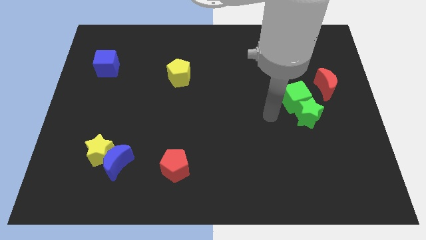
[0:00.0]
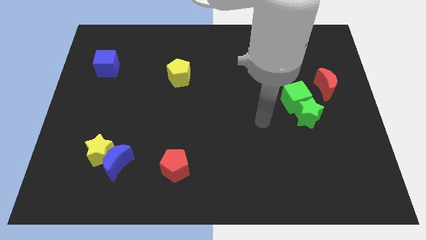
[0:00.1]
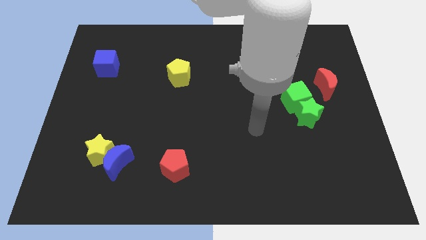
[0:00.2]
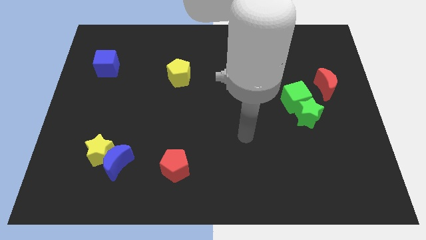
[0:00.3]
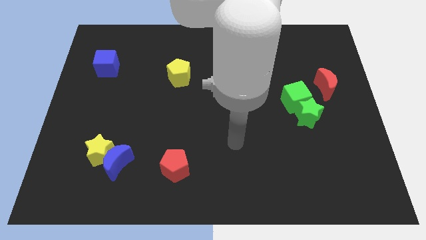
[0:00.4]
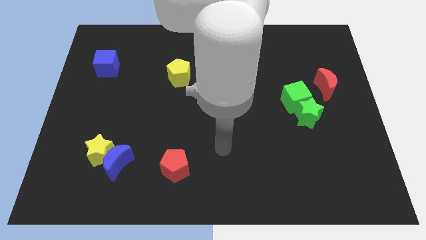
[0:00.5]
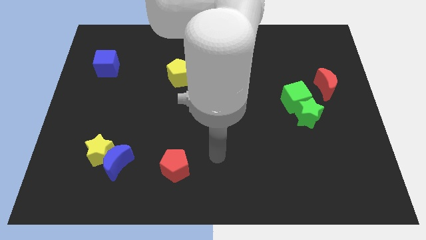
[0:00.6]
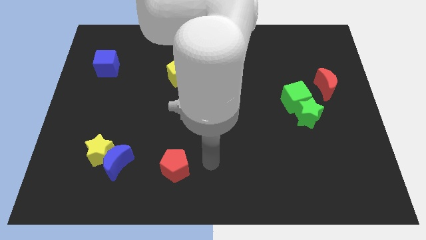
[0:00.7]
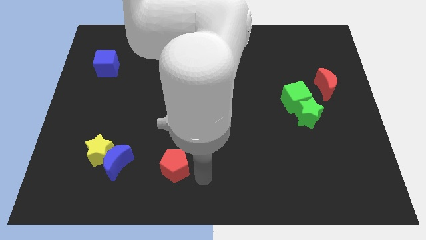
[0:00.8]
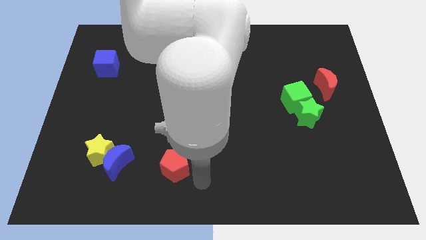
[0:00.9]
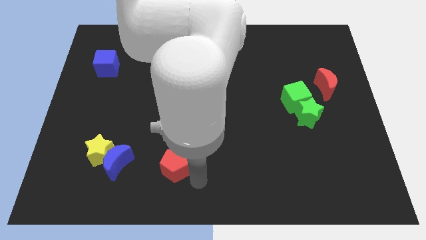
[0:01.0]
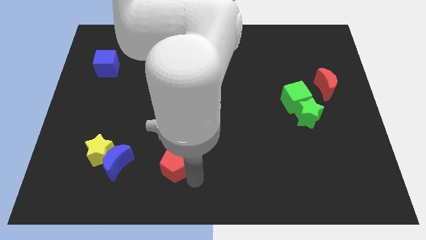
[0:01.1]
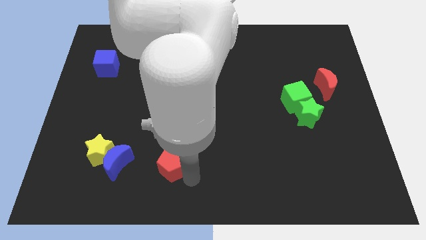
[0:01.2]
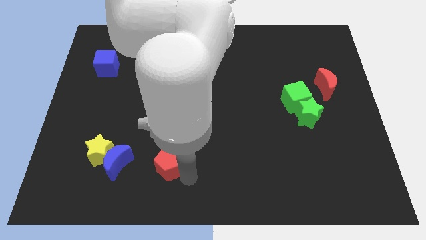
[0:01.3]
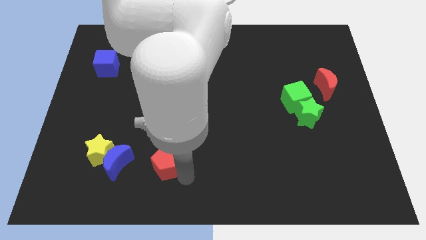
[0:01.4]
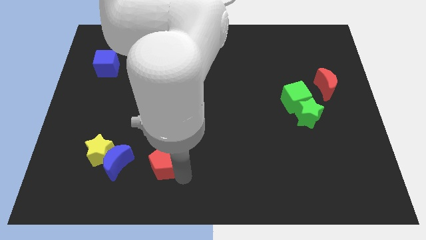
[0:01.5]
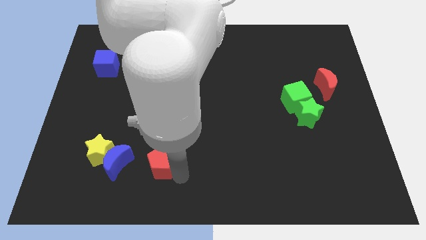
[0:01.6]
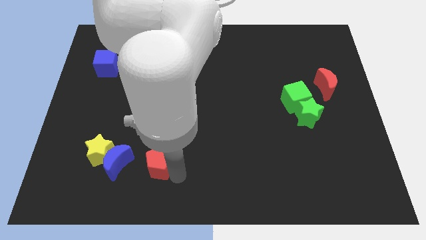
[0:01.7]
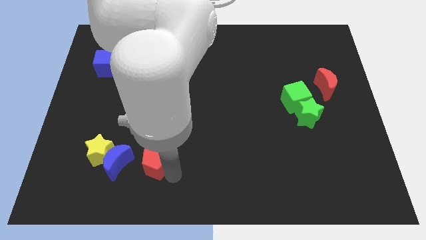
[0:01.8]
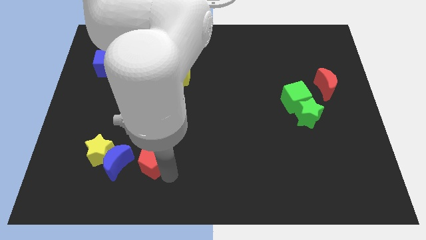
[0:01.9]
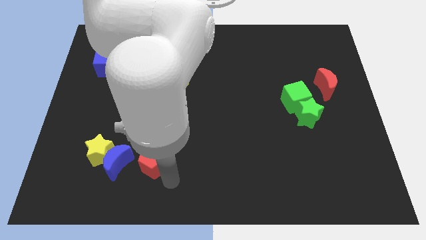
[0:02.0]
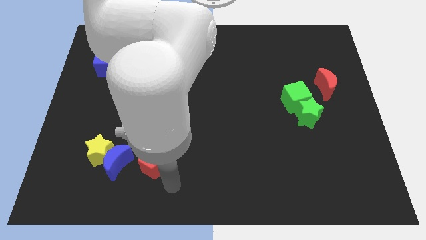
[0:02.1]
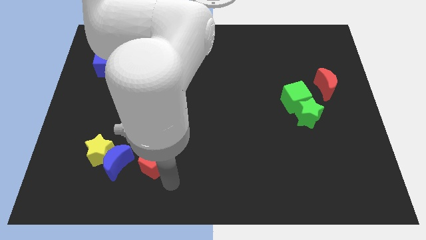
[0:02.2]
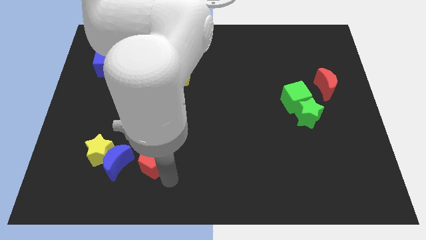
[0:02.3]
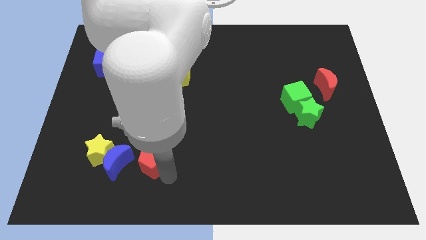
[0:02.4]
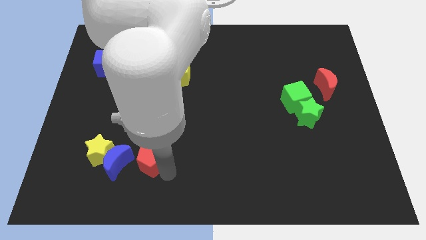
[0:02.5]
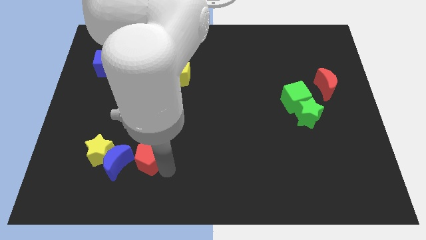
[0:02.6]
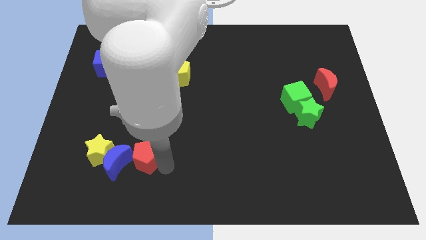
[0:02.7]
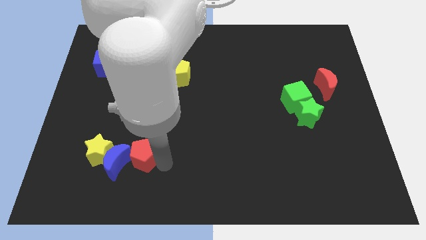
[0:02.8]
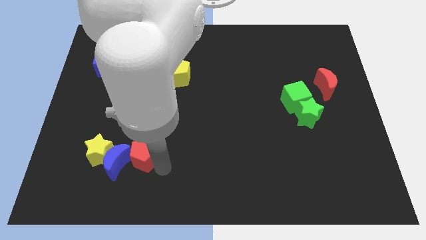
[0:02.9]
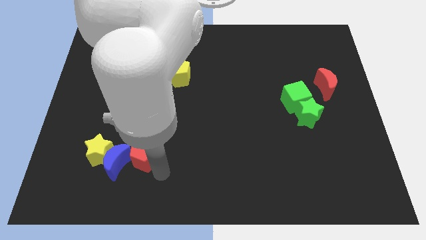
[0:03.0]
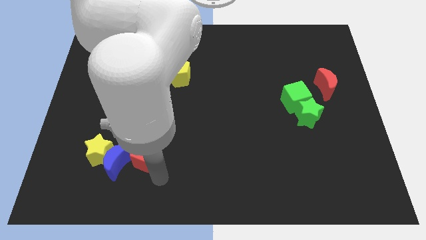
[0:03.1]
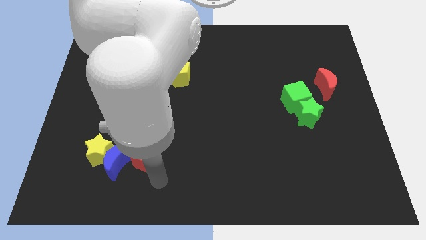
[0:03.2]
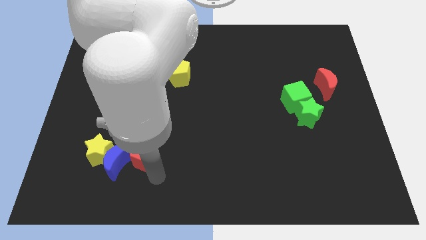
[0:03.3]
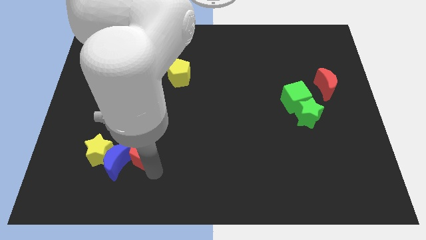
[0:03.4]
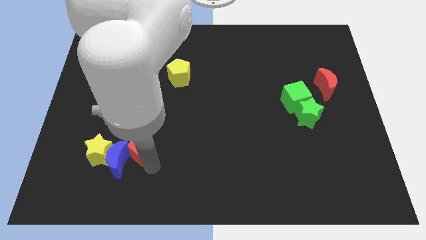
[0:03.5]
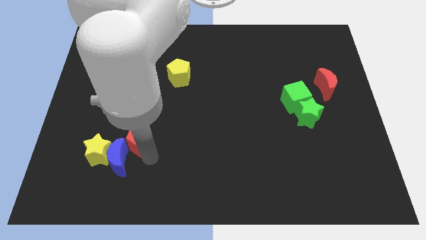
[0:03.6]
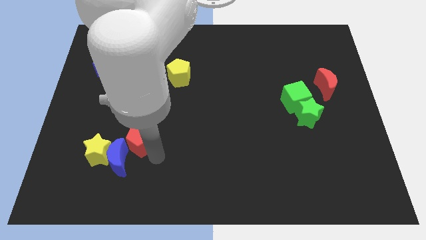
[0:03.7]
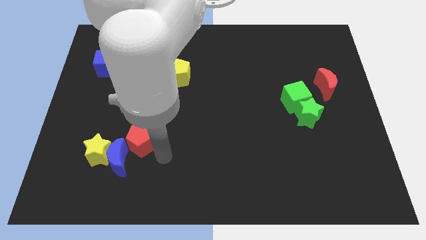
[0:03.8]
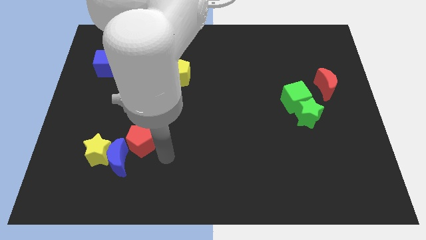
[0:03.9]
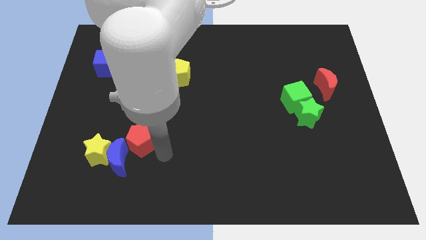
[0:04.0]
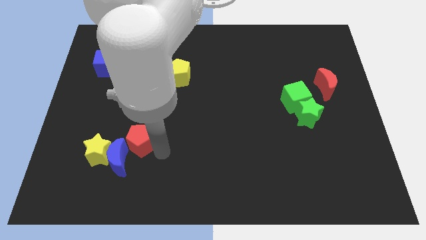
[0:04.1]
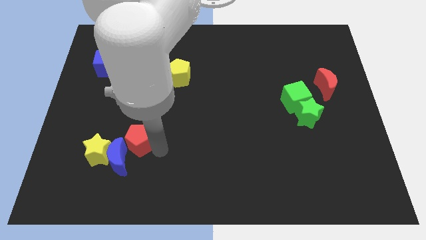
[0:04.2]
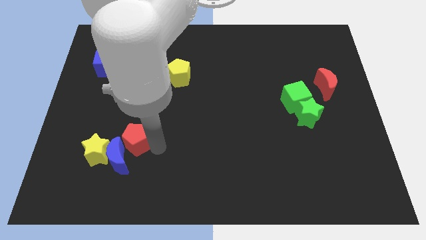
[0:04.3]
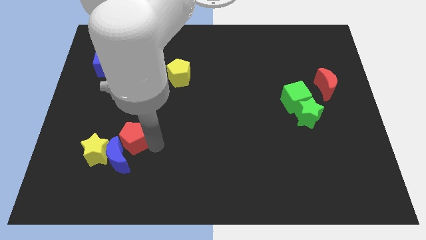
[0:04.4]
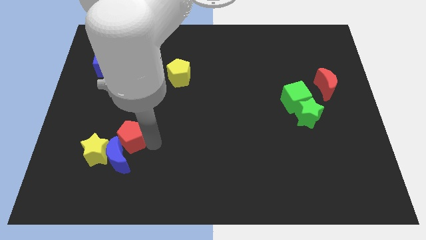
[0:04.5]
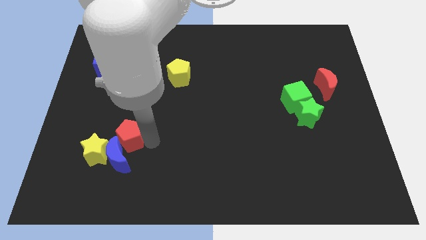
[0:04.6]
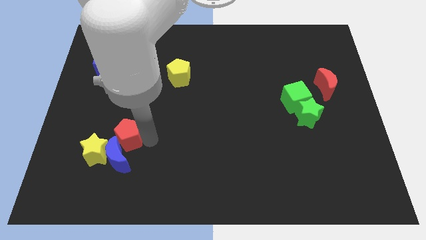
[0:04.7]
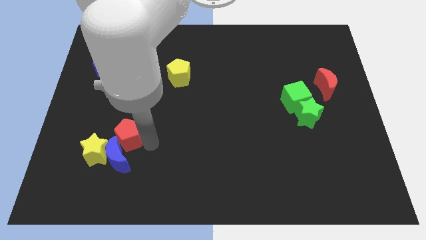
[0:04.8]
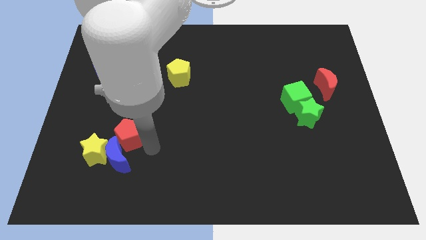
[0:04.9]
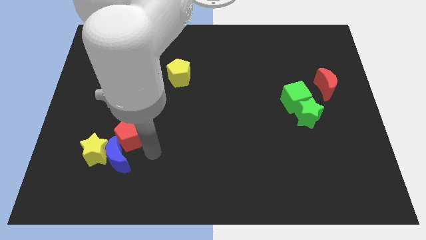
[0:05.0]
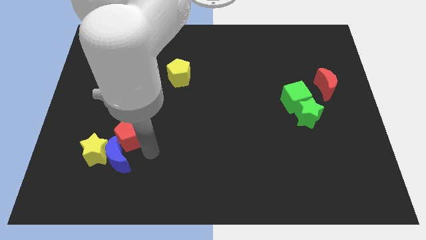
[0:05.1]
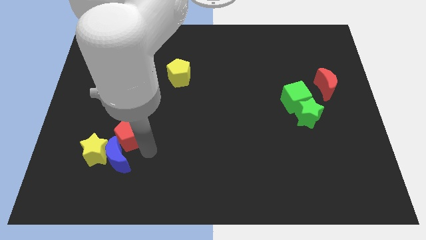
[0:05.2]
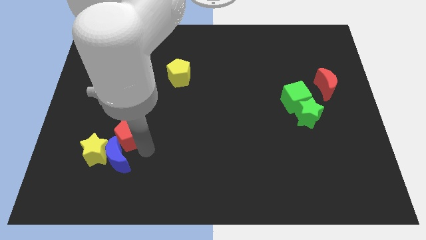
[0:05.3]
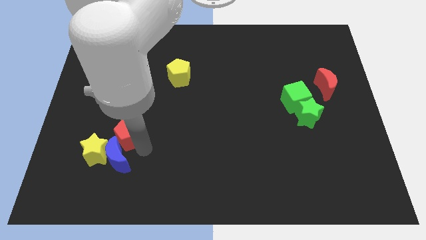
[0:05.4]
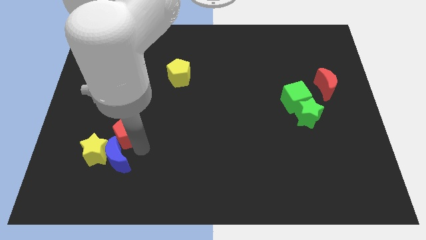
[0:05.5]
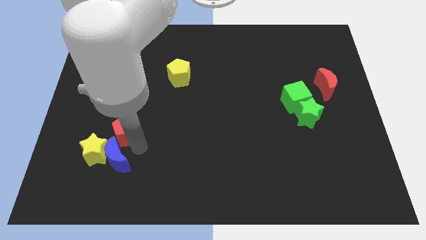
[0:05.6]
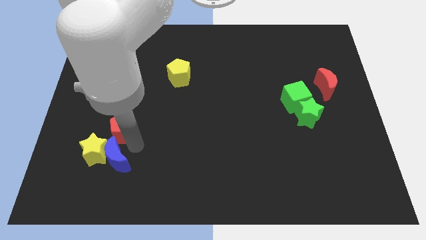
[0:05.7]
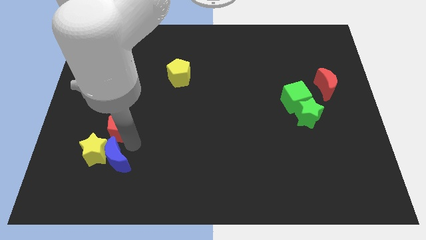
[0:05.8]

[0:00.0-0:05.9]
put the red pentagon to the top side of the yellow star

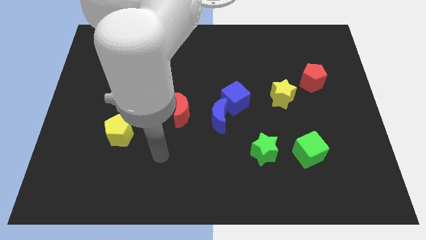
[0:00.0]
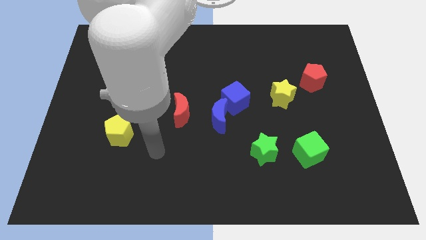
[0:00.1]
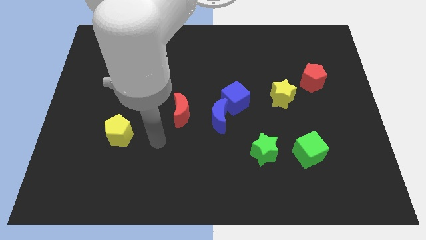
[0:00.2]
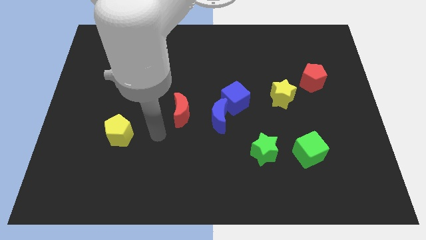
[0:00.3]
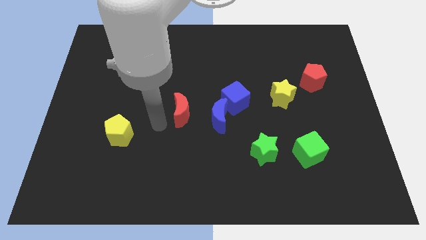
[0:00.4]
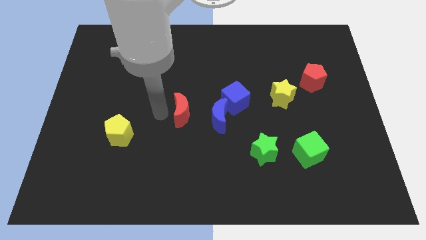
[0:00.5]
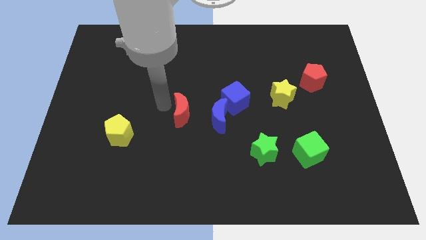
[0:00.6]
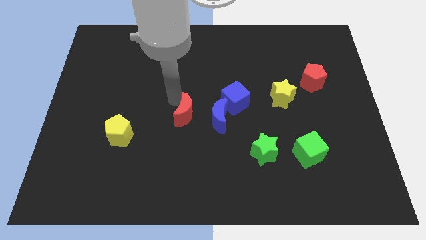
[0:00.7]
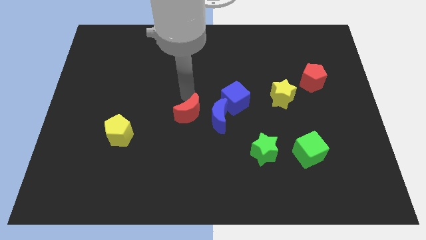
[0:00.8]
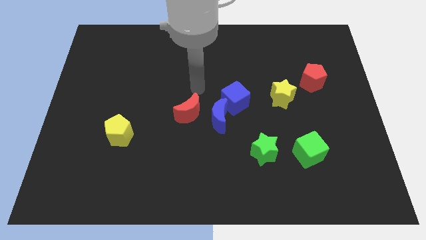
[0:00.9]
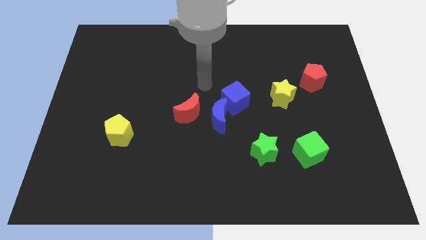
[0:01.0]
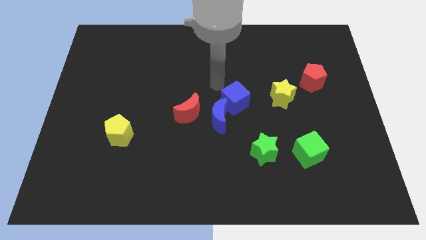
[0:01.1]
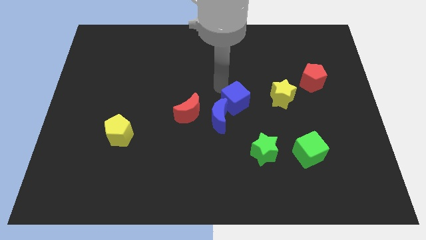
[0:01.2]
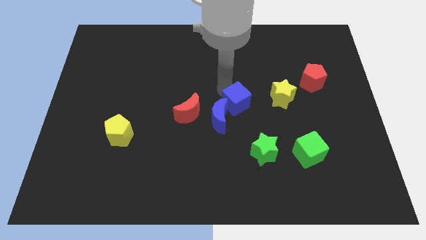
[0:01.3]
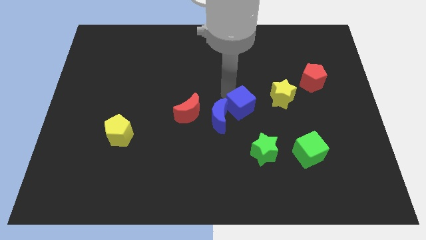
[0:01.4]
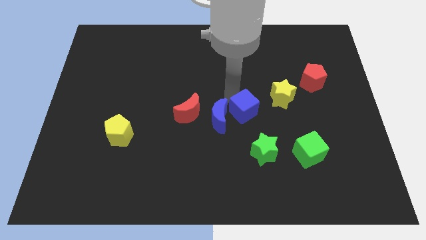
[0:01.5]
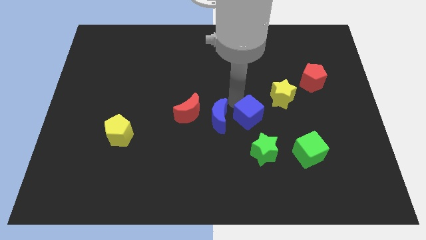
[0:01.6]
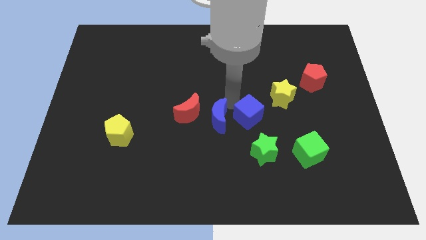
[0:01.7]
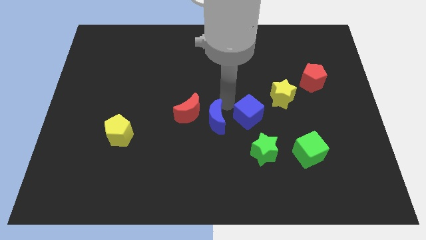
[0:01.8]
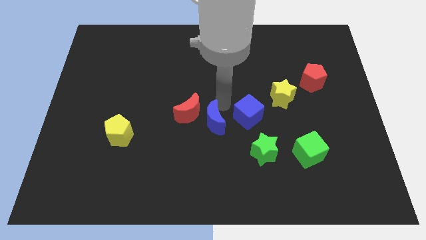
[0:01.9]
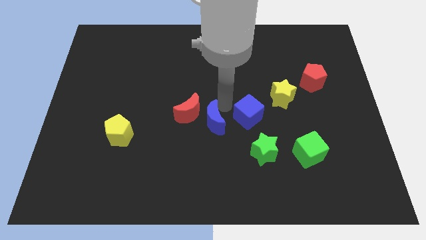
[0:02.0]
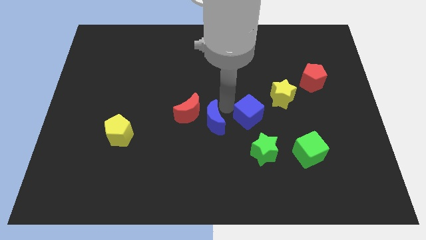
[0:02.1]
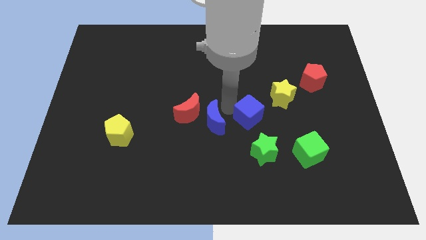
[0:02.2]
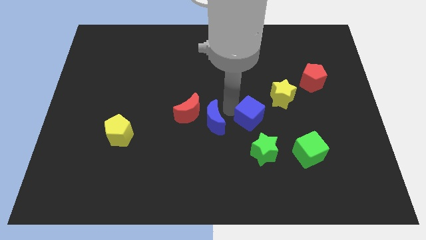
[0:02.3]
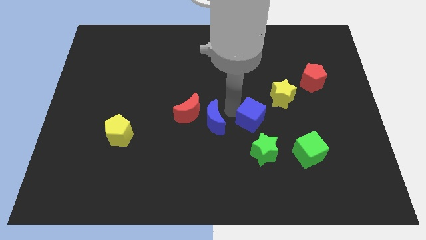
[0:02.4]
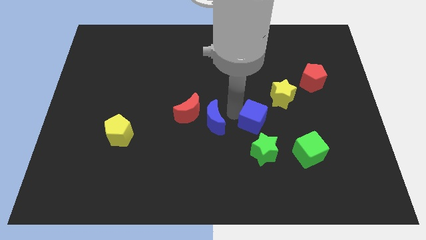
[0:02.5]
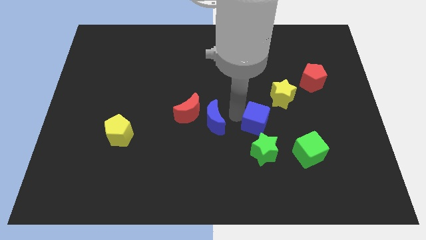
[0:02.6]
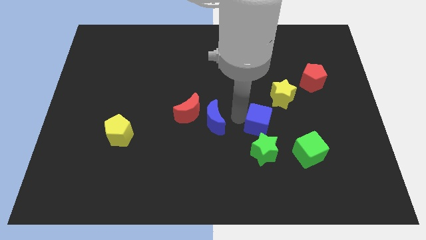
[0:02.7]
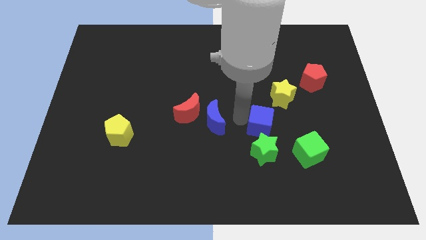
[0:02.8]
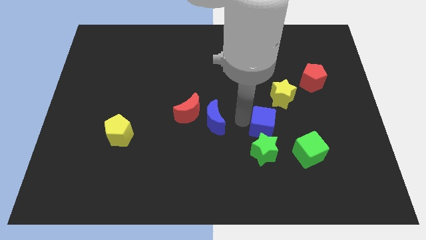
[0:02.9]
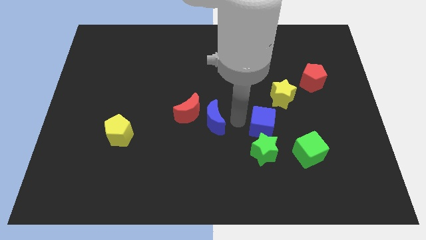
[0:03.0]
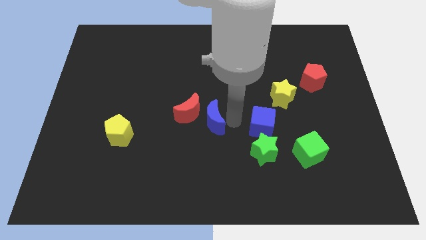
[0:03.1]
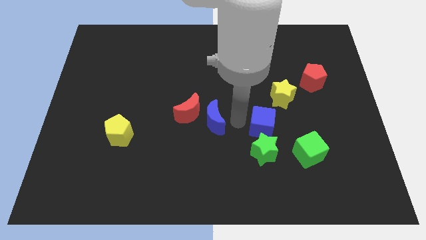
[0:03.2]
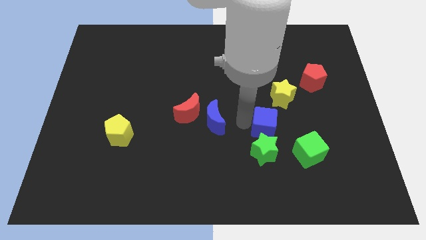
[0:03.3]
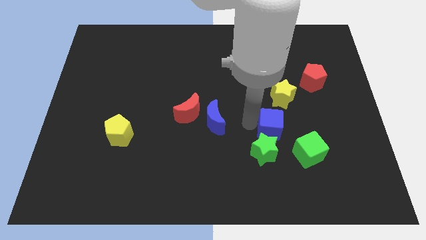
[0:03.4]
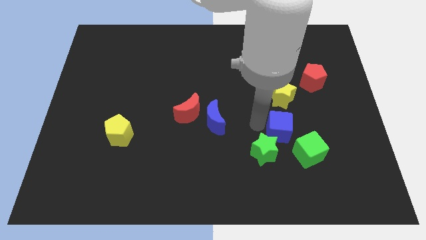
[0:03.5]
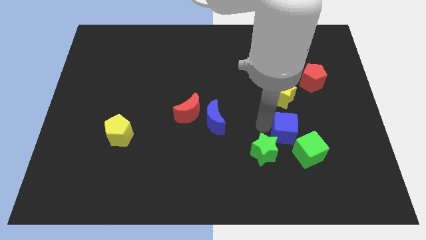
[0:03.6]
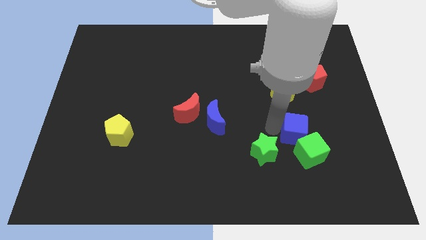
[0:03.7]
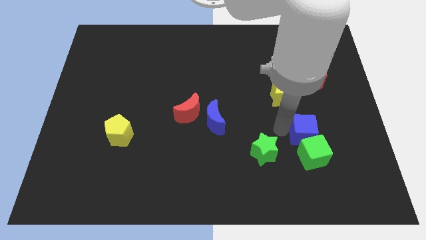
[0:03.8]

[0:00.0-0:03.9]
push the blue cube right of the green star
